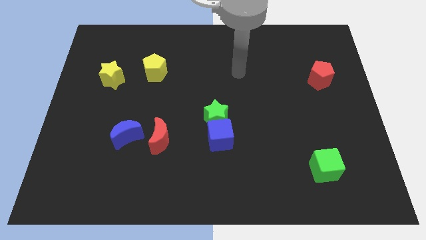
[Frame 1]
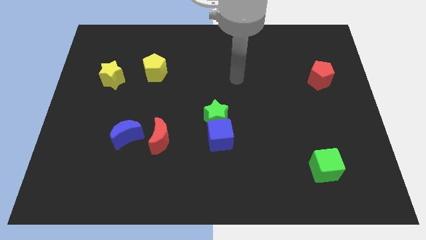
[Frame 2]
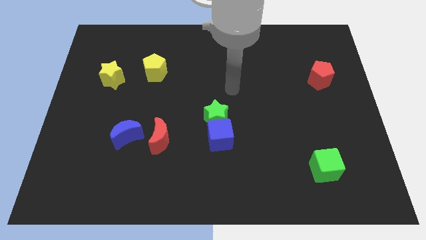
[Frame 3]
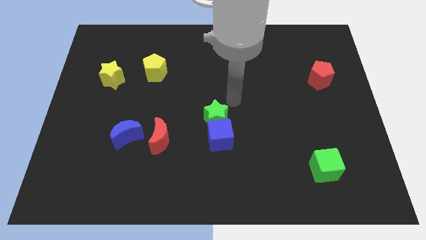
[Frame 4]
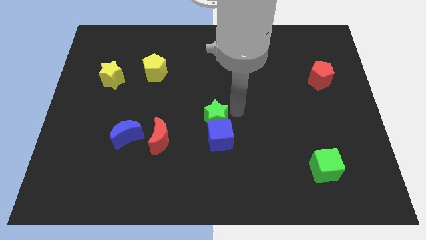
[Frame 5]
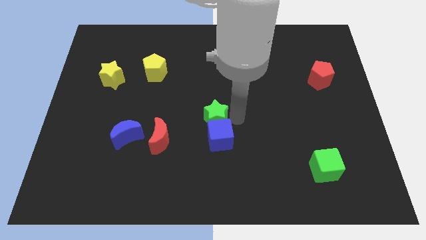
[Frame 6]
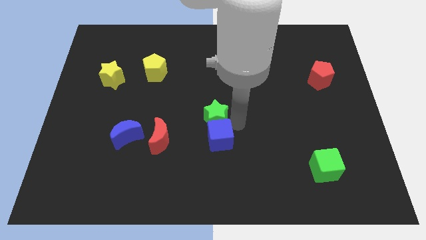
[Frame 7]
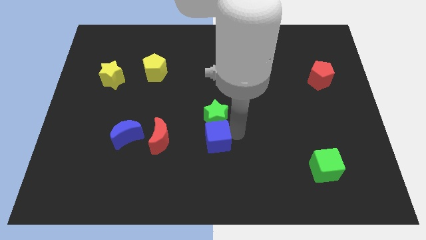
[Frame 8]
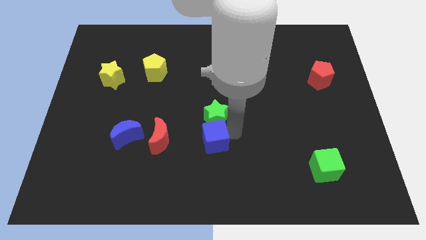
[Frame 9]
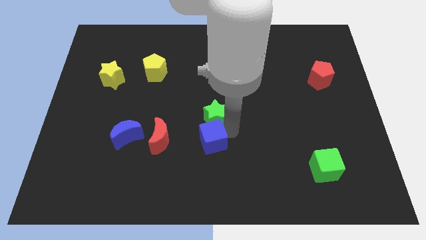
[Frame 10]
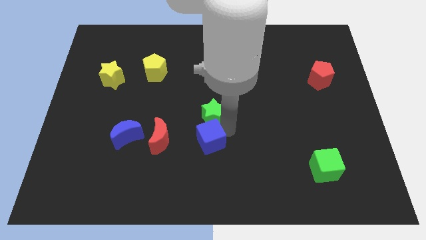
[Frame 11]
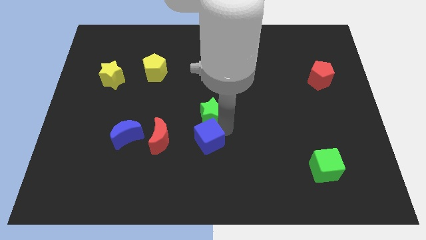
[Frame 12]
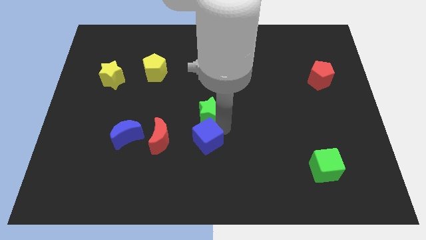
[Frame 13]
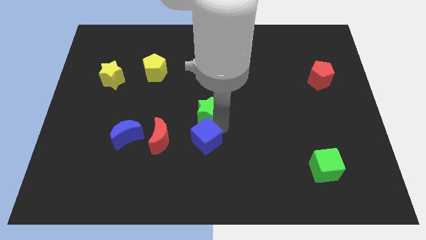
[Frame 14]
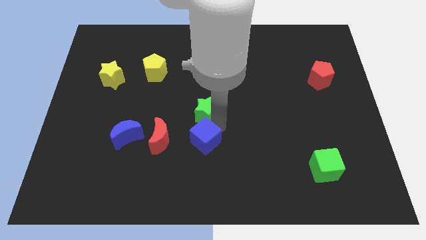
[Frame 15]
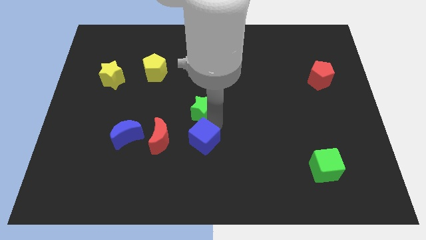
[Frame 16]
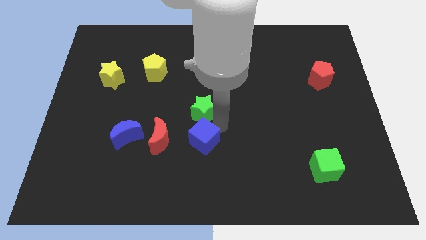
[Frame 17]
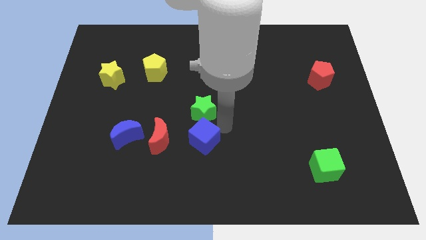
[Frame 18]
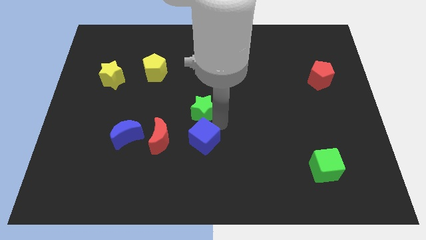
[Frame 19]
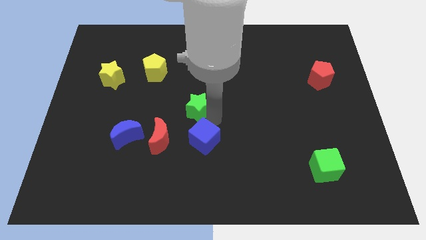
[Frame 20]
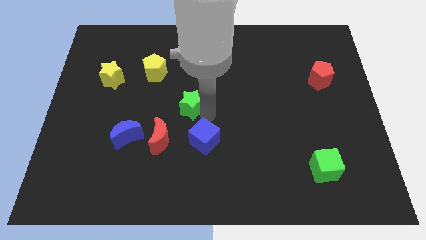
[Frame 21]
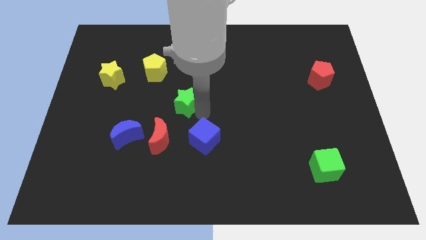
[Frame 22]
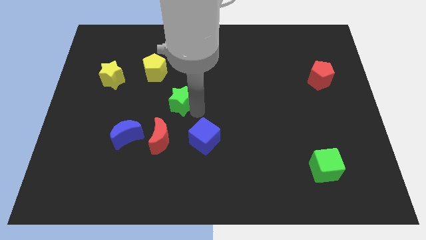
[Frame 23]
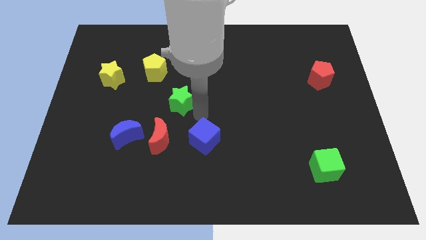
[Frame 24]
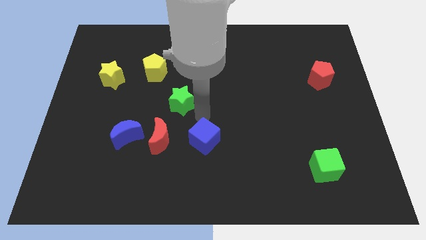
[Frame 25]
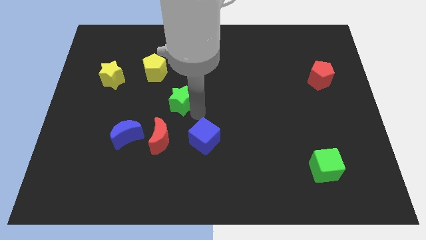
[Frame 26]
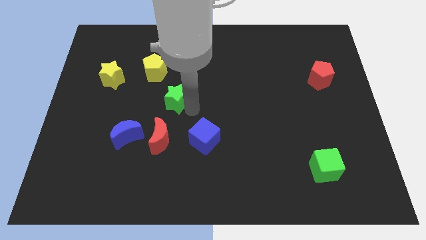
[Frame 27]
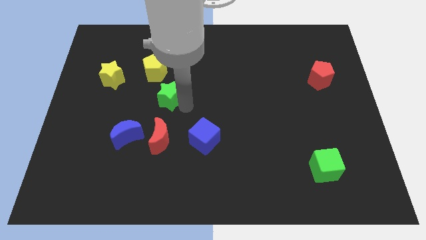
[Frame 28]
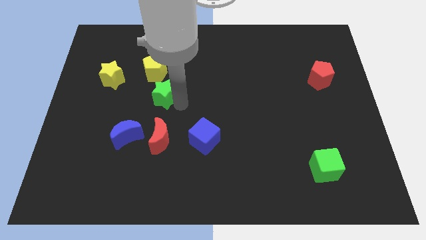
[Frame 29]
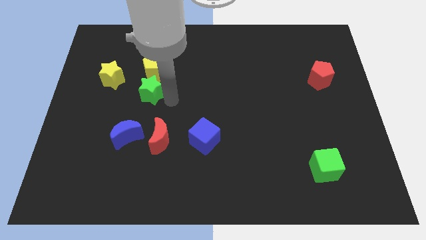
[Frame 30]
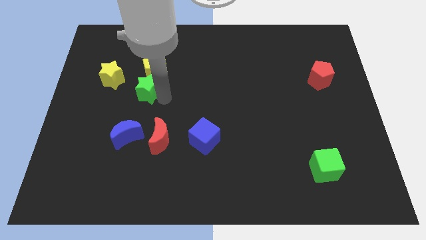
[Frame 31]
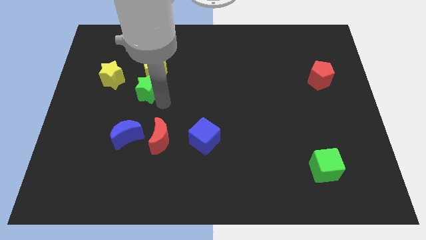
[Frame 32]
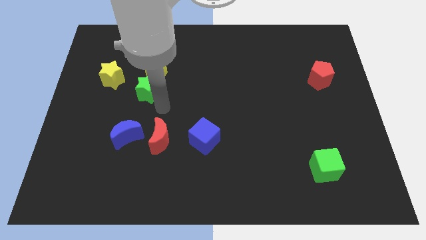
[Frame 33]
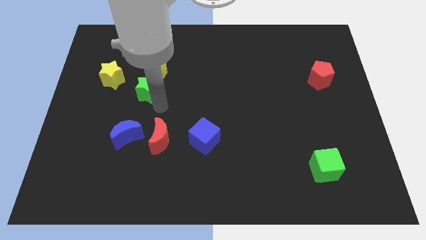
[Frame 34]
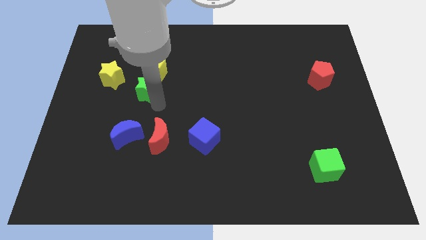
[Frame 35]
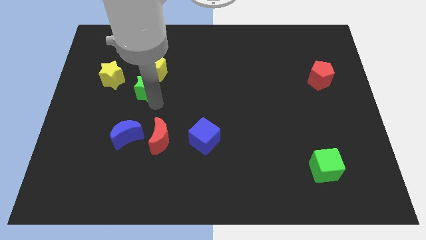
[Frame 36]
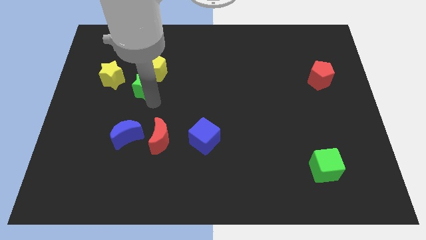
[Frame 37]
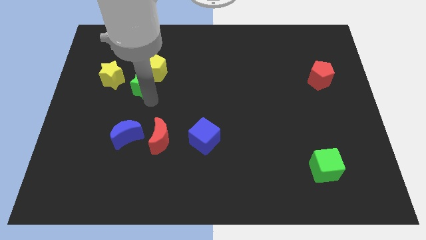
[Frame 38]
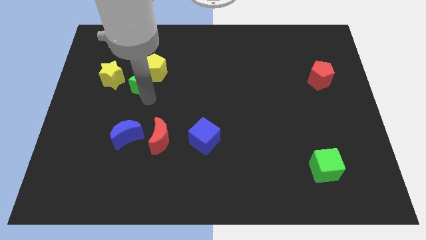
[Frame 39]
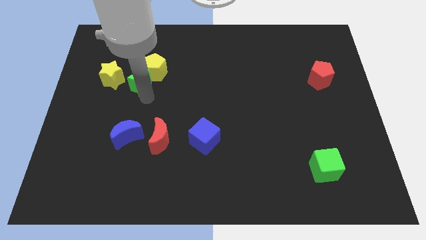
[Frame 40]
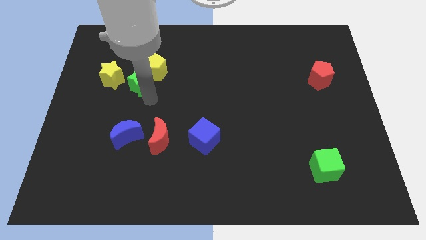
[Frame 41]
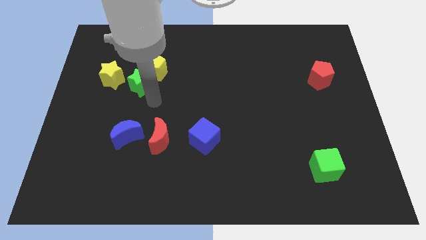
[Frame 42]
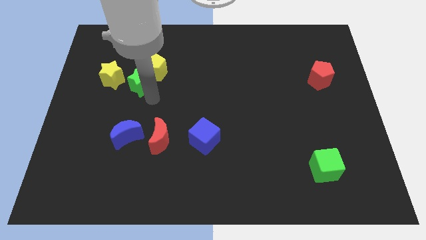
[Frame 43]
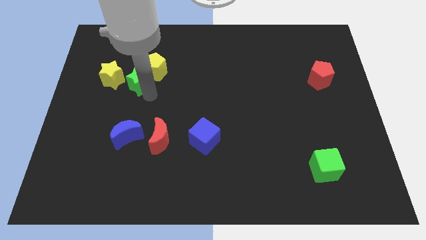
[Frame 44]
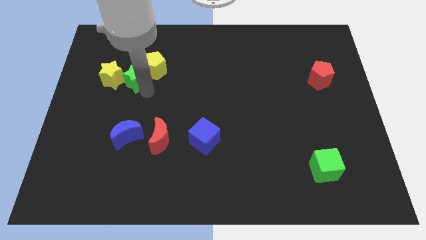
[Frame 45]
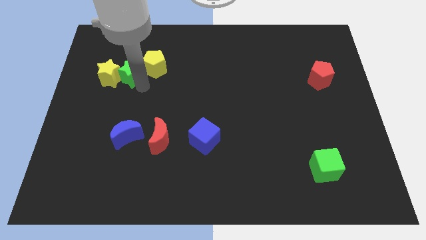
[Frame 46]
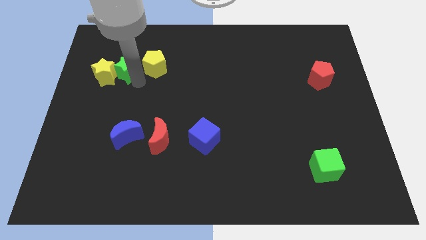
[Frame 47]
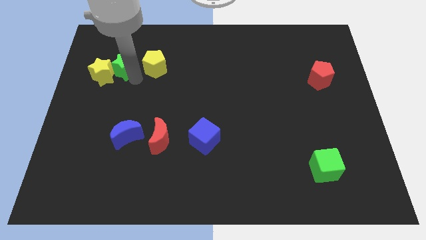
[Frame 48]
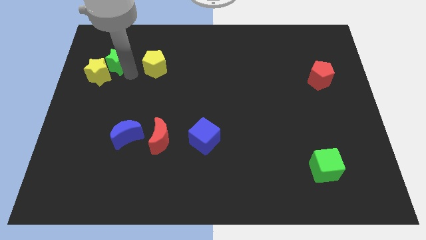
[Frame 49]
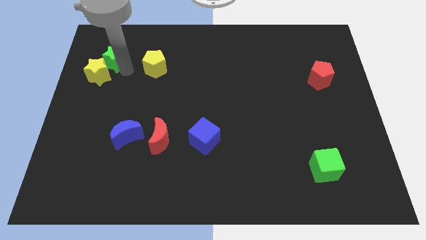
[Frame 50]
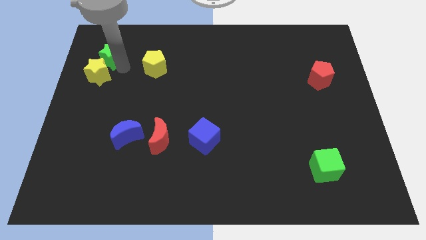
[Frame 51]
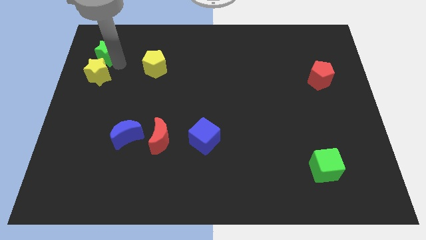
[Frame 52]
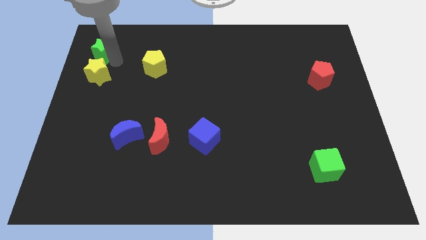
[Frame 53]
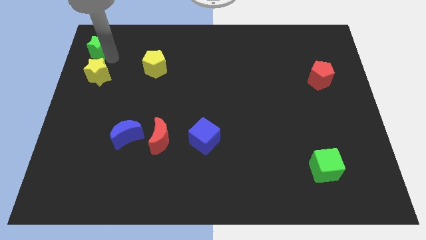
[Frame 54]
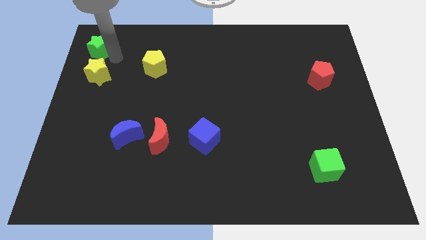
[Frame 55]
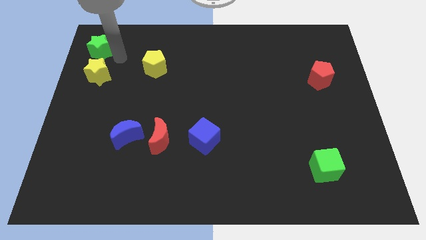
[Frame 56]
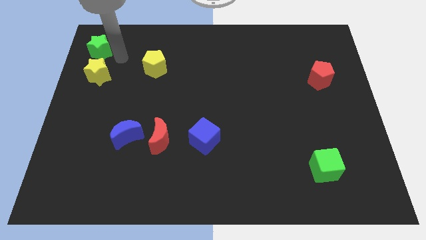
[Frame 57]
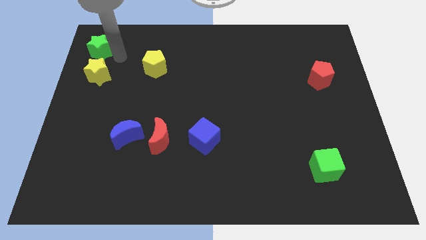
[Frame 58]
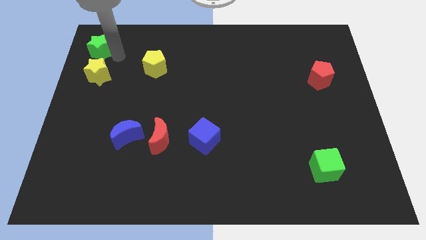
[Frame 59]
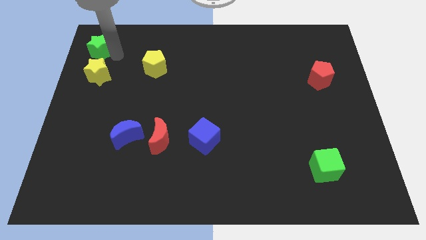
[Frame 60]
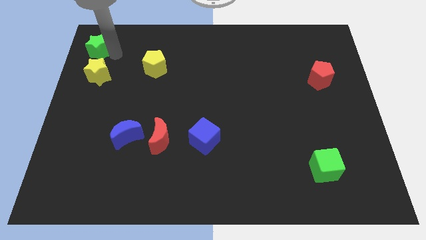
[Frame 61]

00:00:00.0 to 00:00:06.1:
slide the green star to the top left

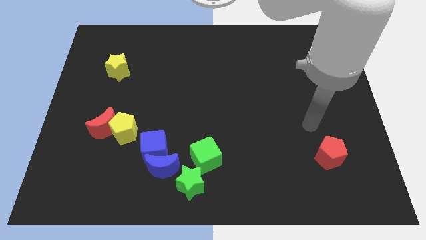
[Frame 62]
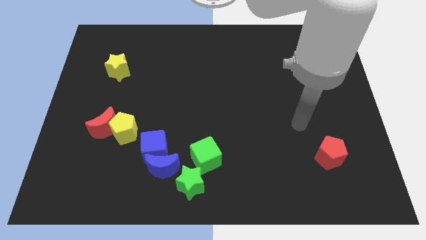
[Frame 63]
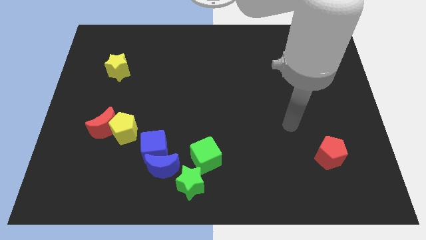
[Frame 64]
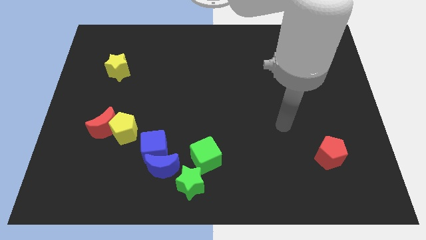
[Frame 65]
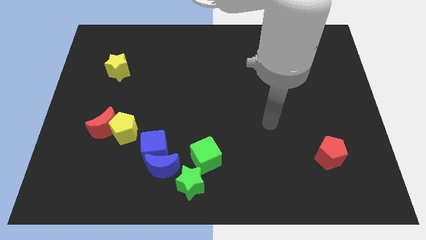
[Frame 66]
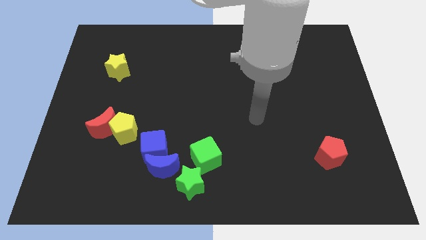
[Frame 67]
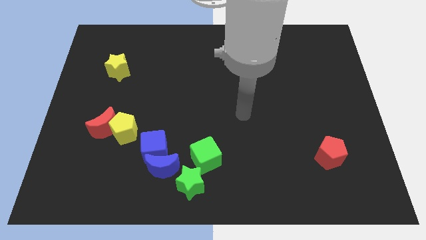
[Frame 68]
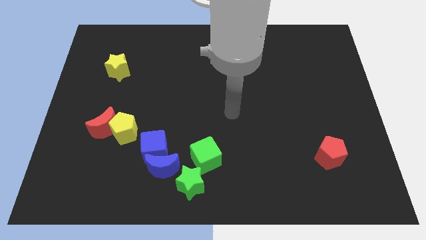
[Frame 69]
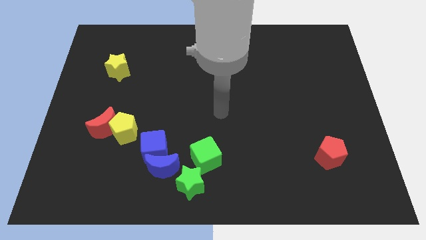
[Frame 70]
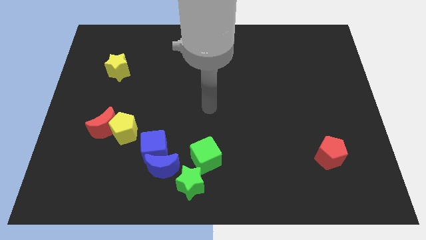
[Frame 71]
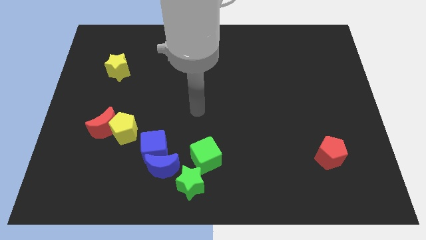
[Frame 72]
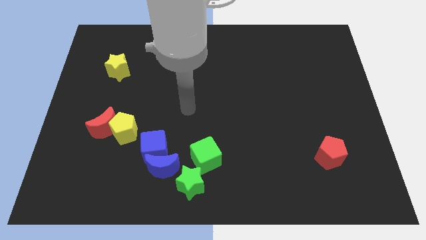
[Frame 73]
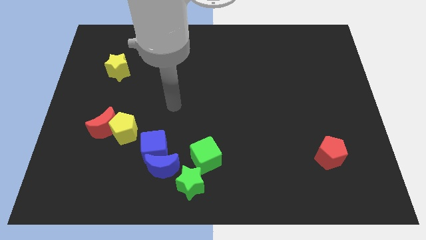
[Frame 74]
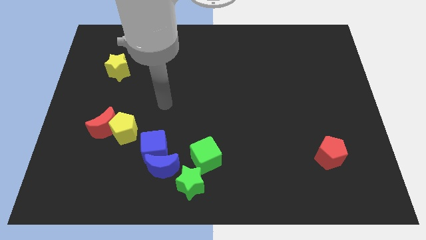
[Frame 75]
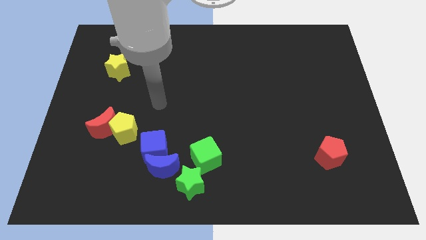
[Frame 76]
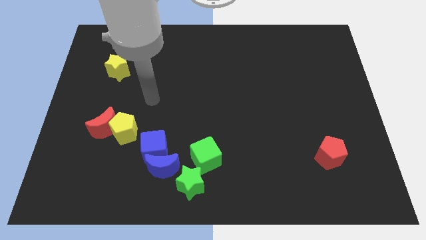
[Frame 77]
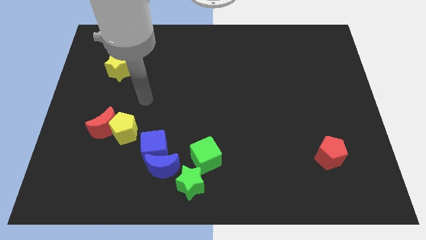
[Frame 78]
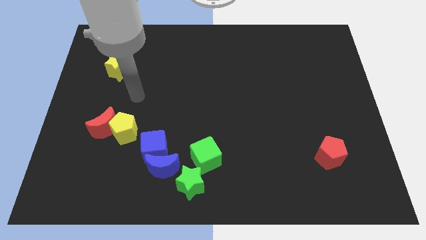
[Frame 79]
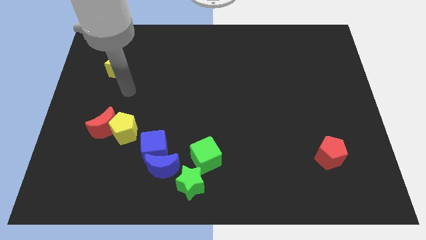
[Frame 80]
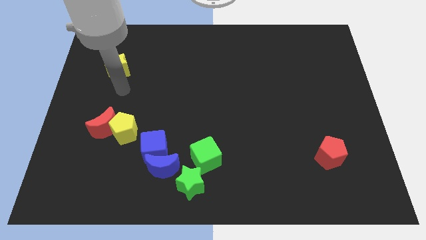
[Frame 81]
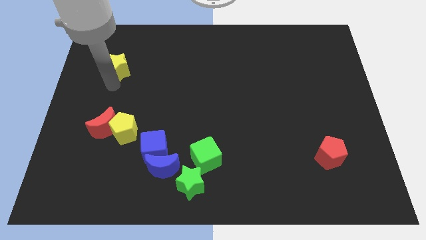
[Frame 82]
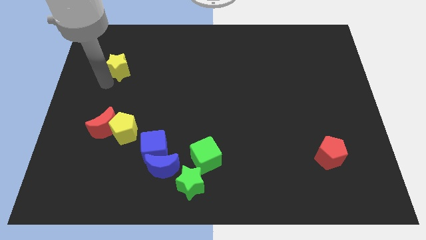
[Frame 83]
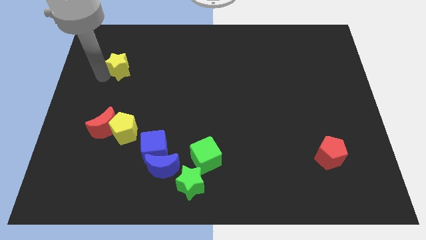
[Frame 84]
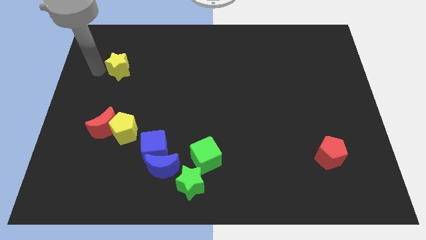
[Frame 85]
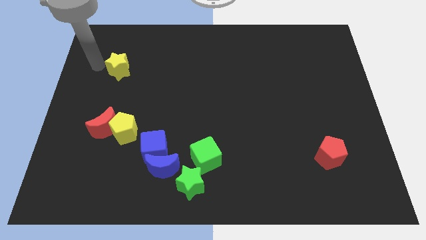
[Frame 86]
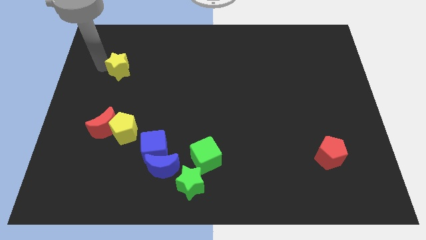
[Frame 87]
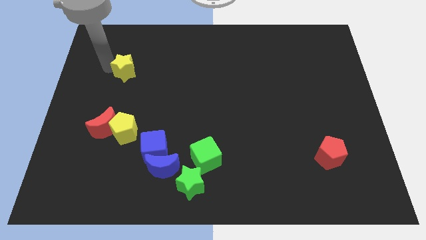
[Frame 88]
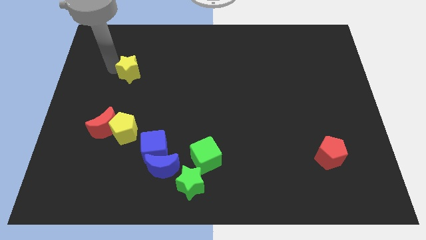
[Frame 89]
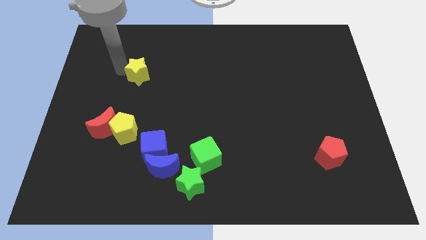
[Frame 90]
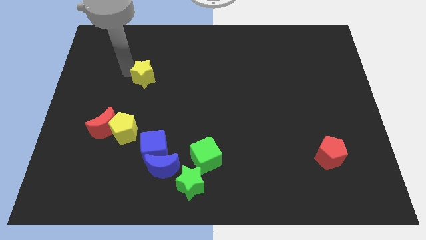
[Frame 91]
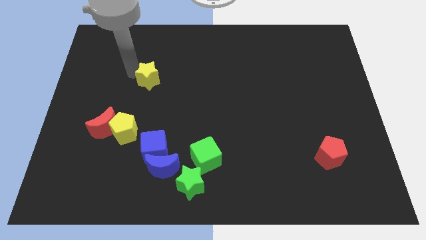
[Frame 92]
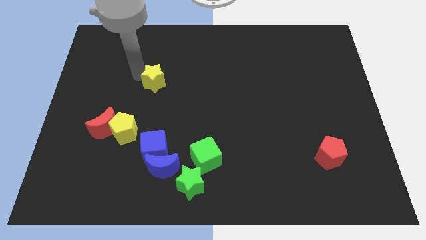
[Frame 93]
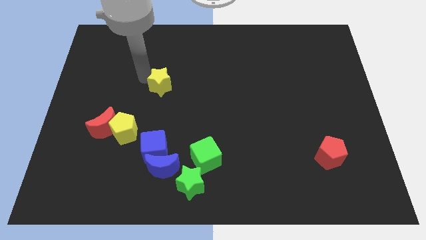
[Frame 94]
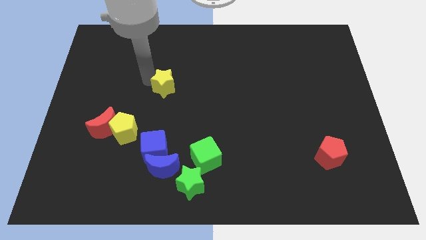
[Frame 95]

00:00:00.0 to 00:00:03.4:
slide the yellow star to the middle
